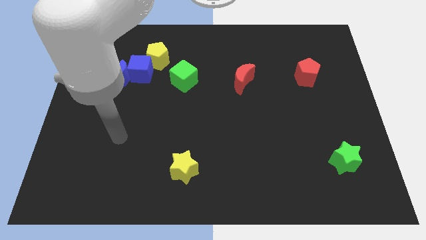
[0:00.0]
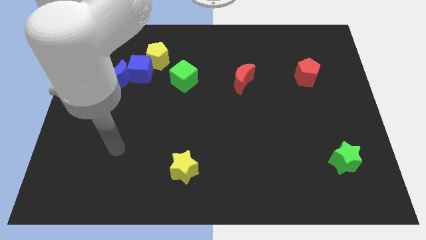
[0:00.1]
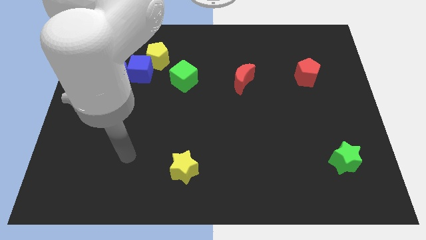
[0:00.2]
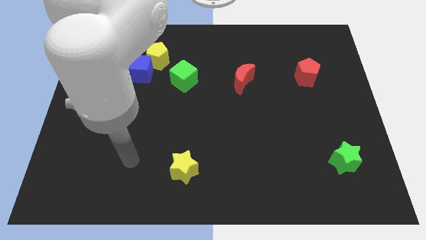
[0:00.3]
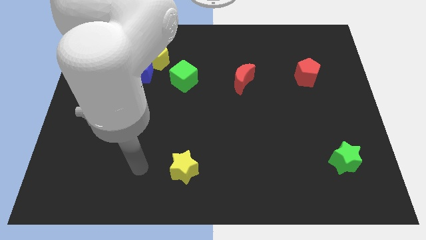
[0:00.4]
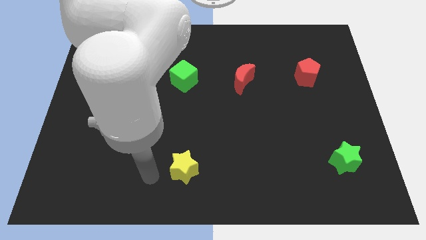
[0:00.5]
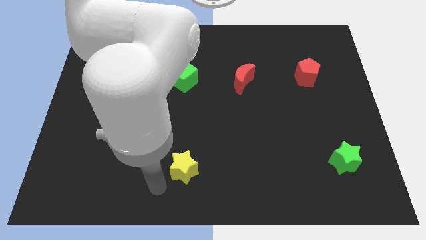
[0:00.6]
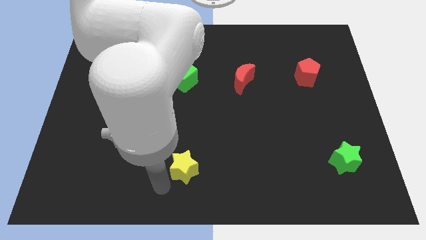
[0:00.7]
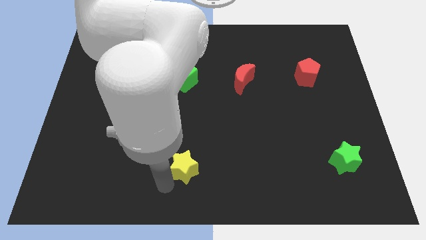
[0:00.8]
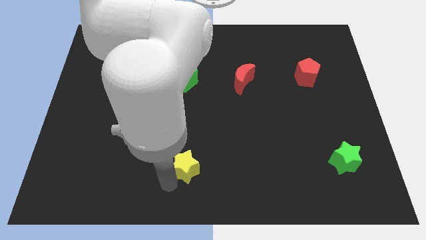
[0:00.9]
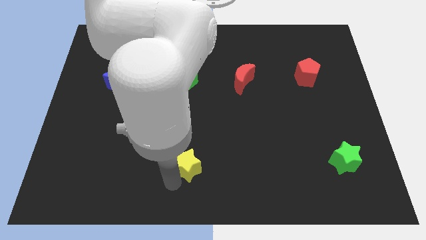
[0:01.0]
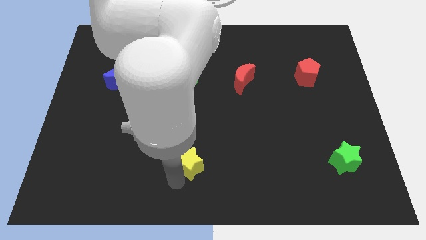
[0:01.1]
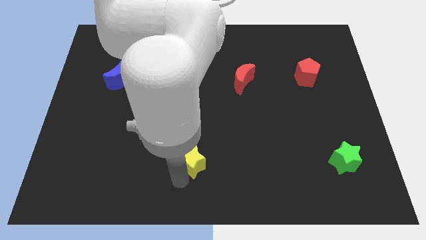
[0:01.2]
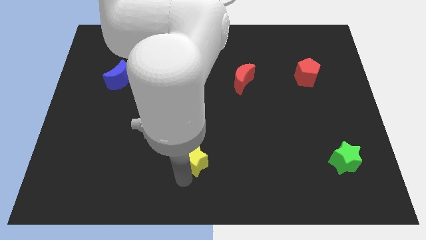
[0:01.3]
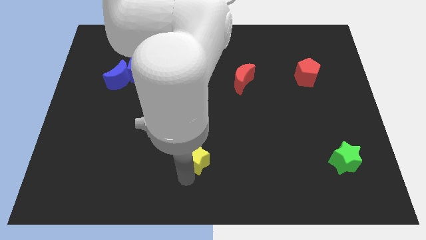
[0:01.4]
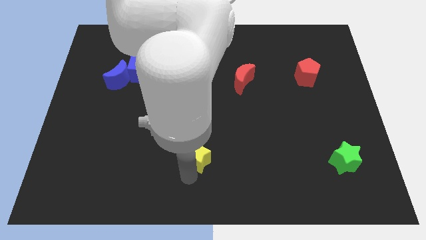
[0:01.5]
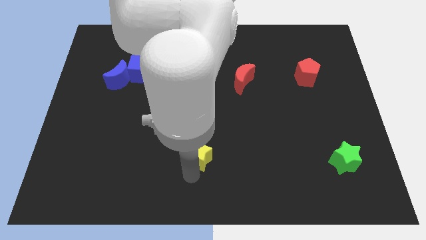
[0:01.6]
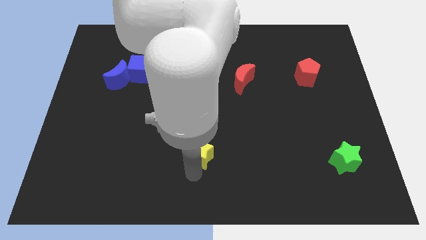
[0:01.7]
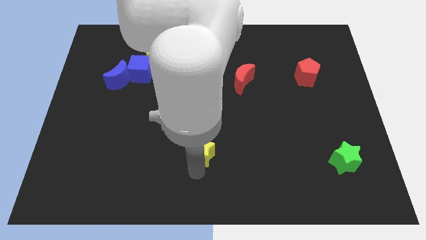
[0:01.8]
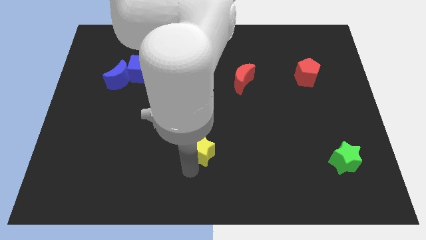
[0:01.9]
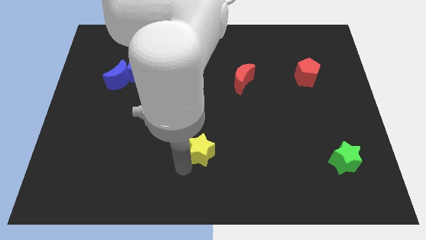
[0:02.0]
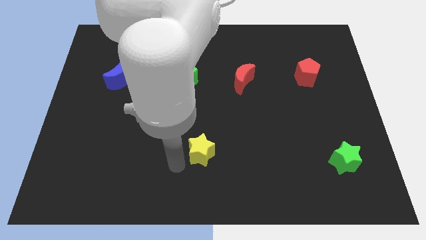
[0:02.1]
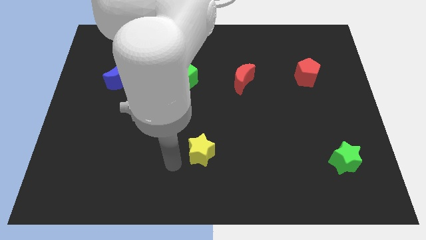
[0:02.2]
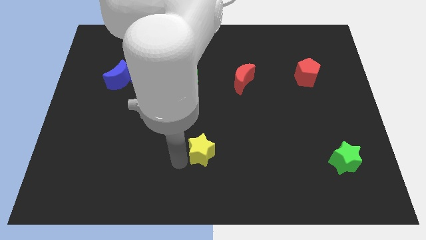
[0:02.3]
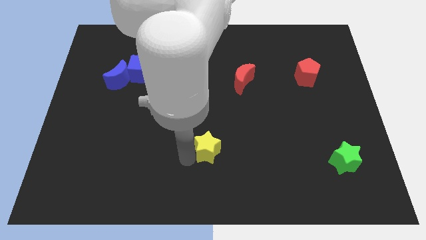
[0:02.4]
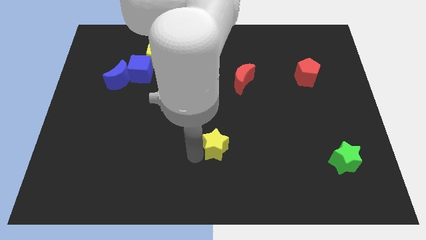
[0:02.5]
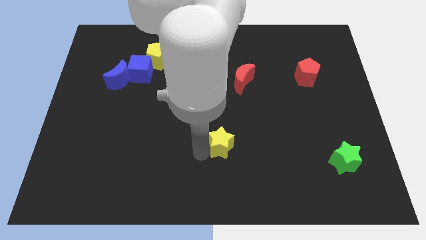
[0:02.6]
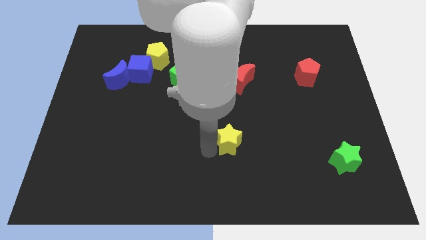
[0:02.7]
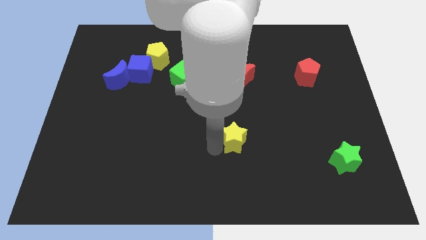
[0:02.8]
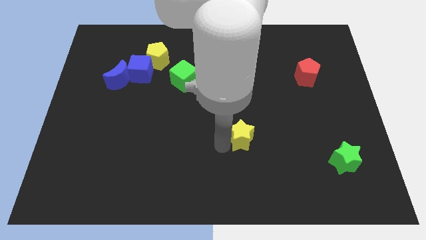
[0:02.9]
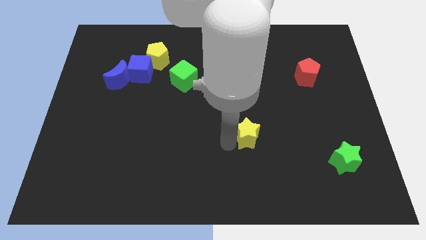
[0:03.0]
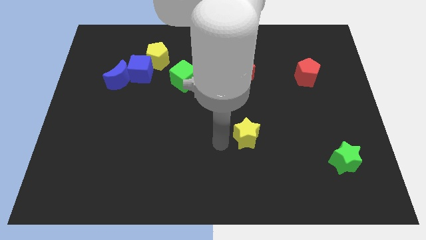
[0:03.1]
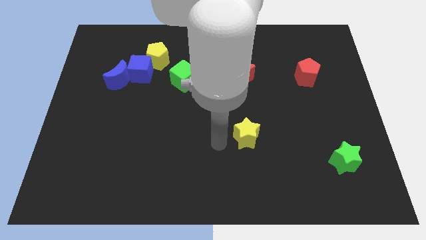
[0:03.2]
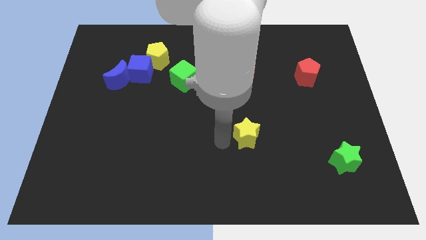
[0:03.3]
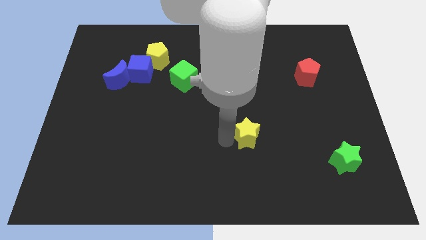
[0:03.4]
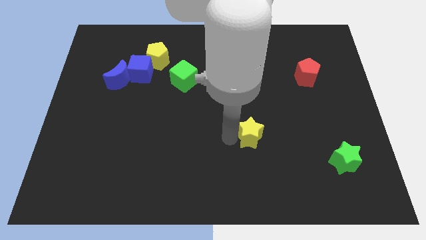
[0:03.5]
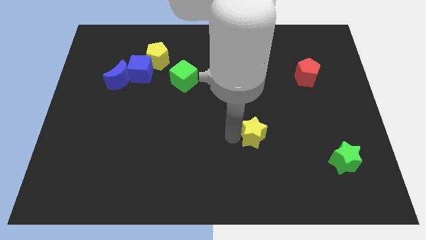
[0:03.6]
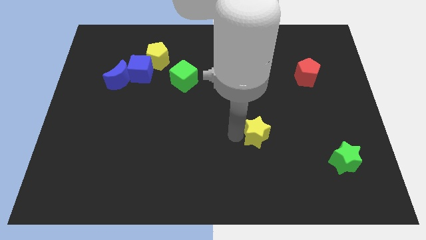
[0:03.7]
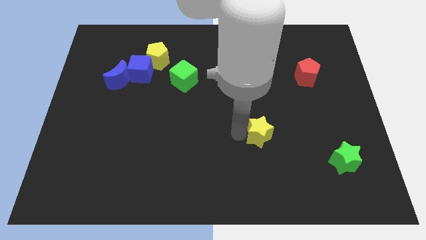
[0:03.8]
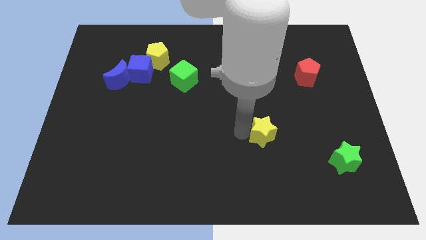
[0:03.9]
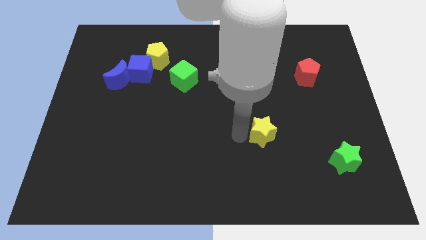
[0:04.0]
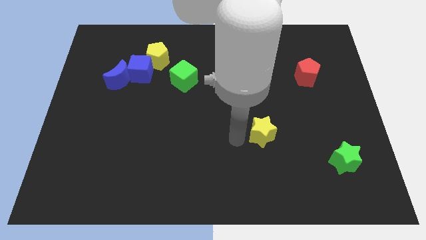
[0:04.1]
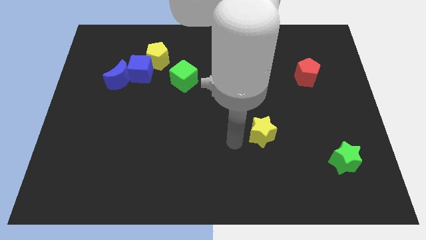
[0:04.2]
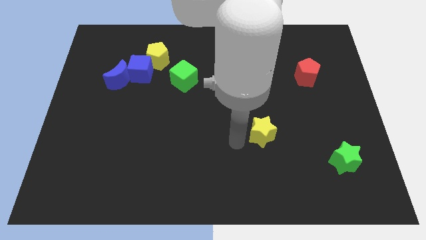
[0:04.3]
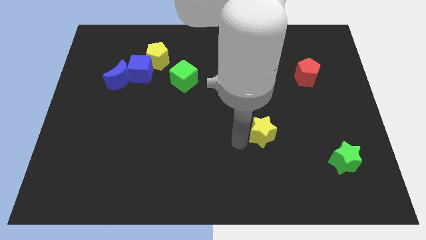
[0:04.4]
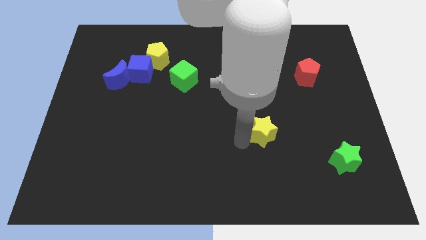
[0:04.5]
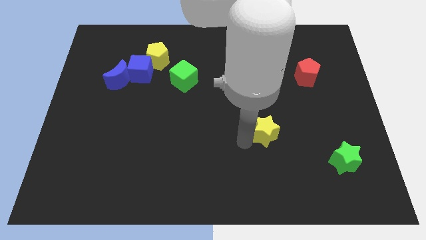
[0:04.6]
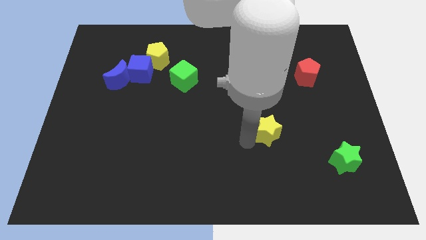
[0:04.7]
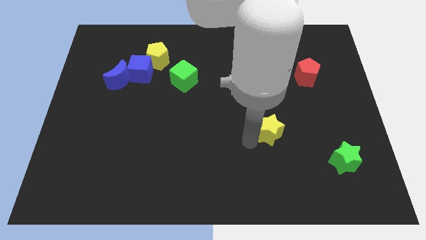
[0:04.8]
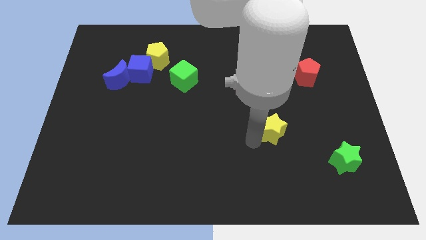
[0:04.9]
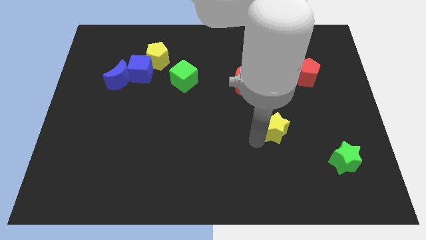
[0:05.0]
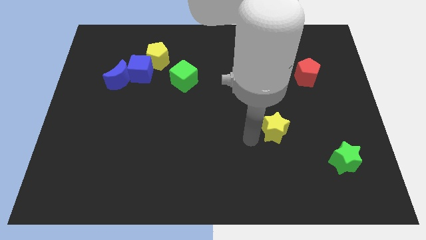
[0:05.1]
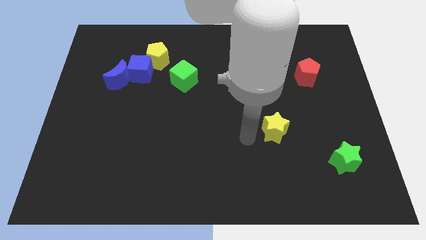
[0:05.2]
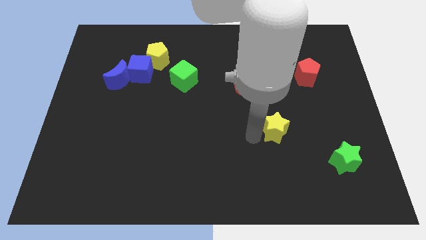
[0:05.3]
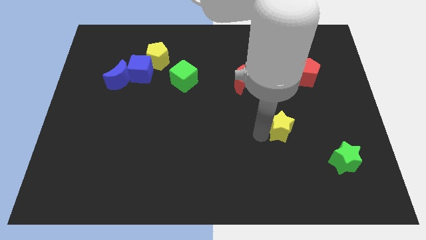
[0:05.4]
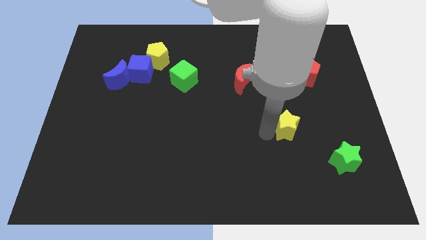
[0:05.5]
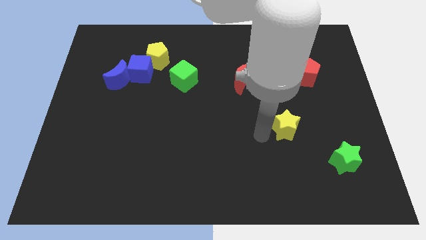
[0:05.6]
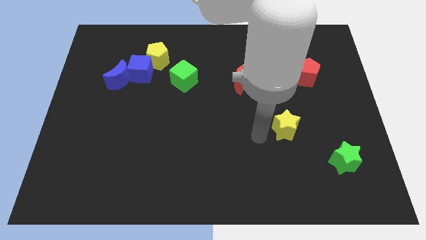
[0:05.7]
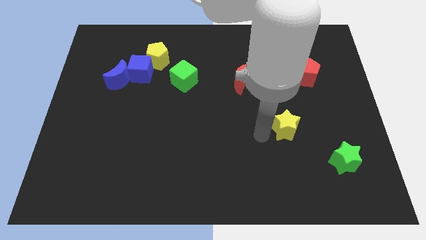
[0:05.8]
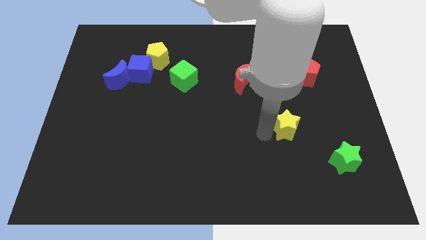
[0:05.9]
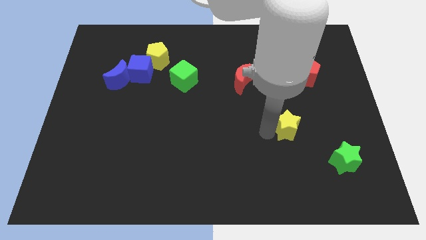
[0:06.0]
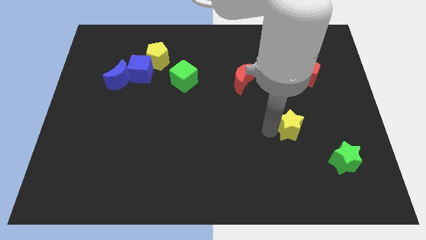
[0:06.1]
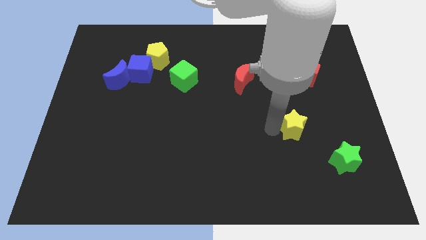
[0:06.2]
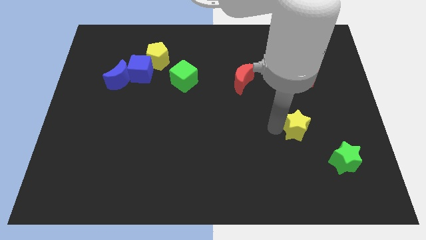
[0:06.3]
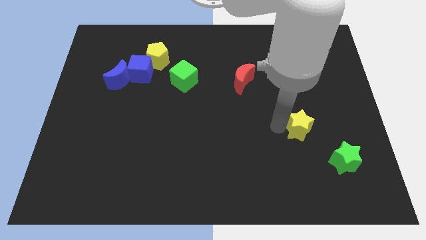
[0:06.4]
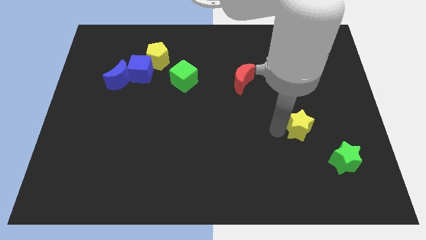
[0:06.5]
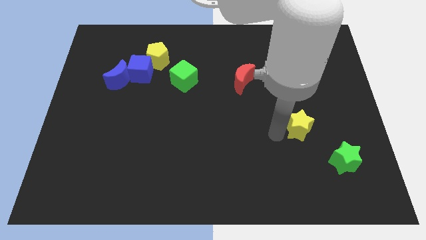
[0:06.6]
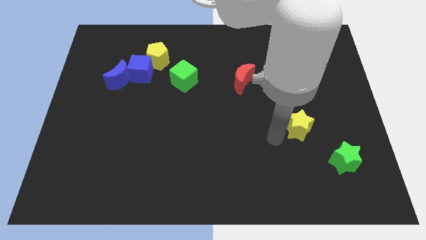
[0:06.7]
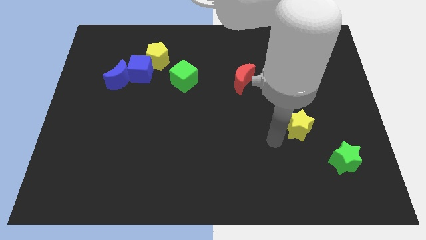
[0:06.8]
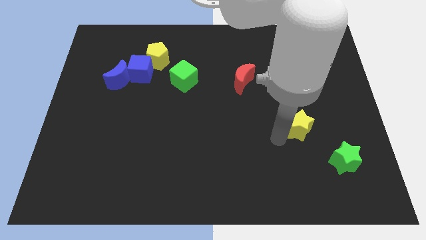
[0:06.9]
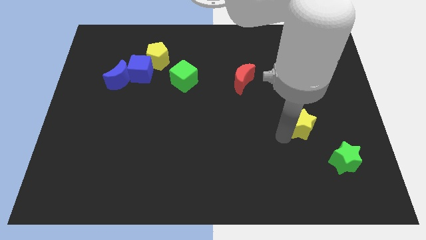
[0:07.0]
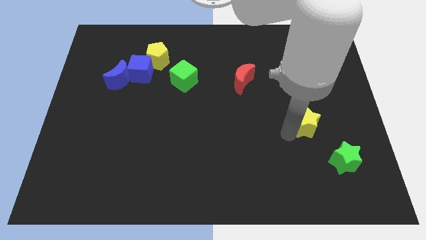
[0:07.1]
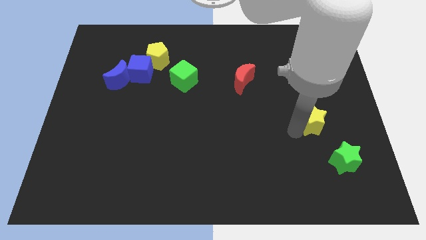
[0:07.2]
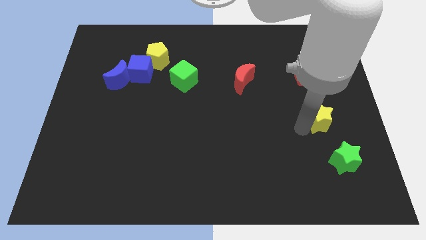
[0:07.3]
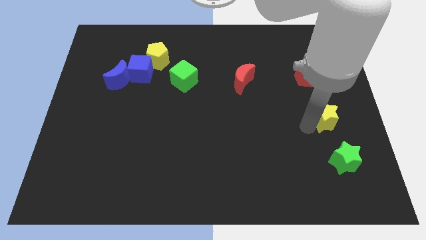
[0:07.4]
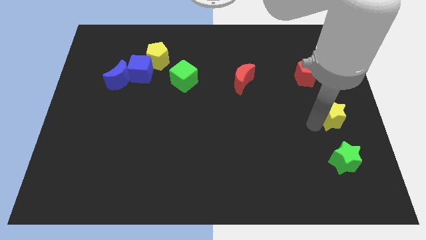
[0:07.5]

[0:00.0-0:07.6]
put the yellow star to the center right
